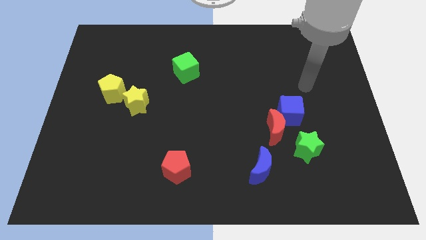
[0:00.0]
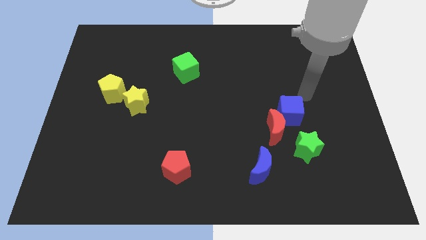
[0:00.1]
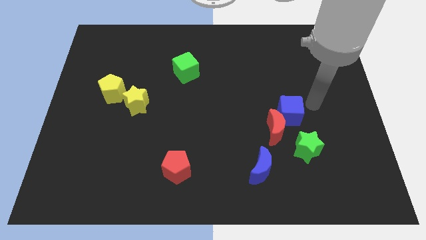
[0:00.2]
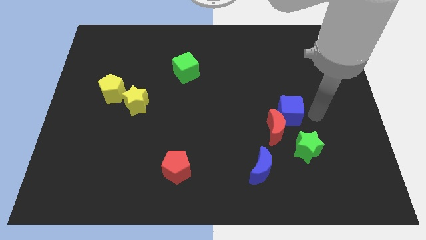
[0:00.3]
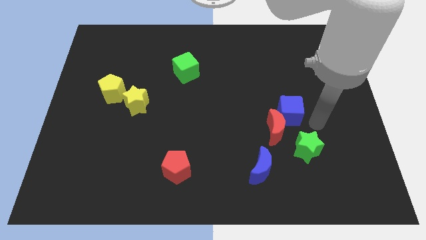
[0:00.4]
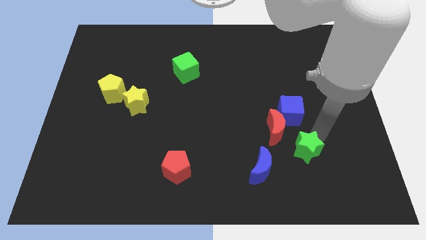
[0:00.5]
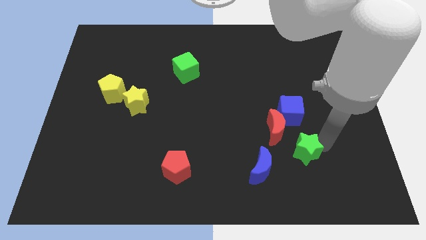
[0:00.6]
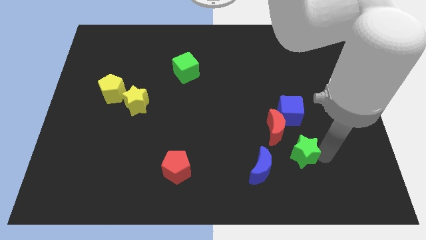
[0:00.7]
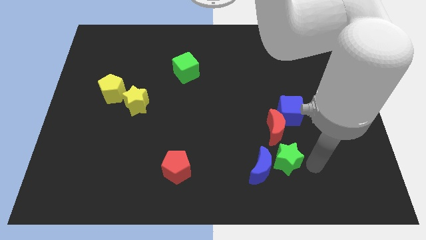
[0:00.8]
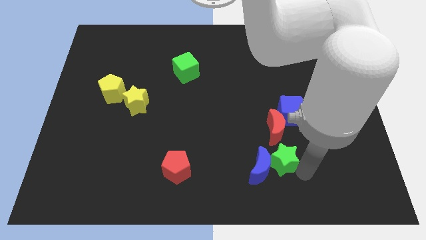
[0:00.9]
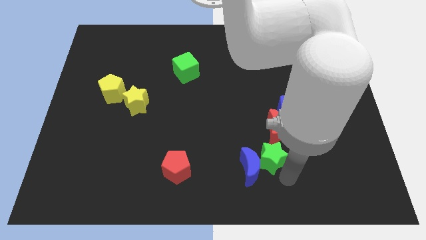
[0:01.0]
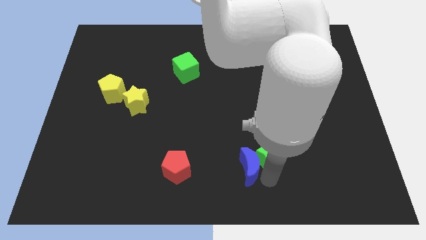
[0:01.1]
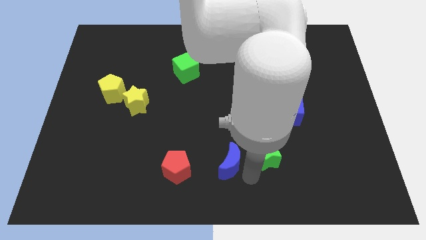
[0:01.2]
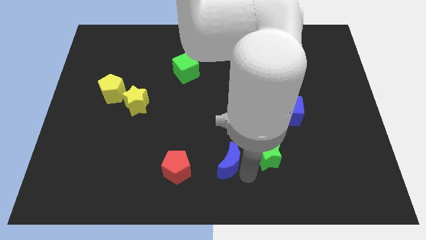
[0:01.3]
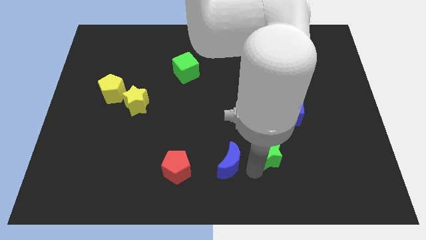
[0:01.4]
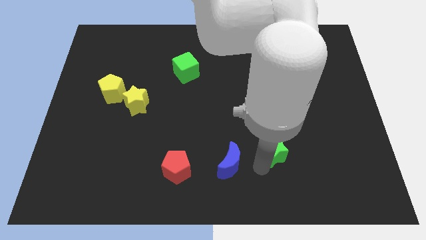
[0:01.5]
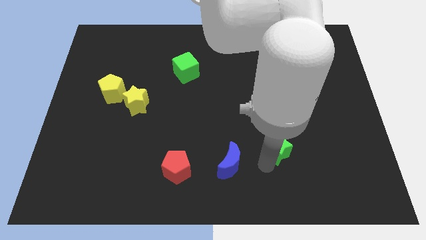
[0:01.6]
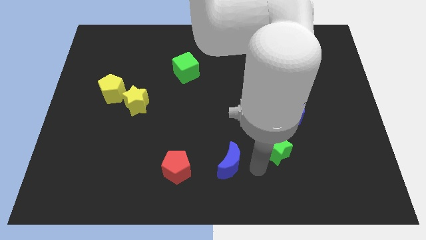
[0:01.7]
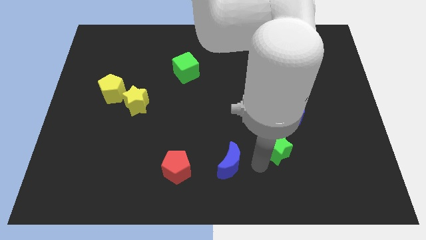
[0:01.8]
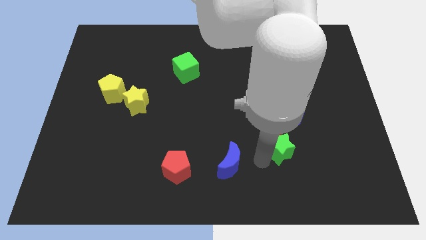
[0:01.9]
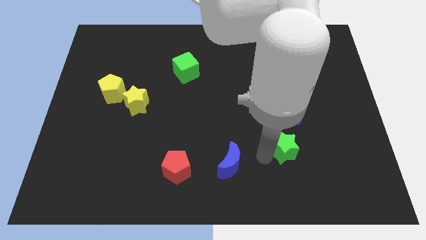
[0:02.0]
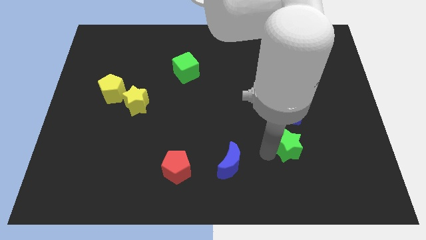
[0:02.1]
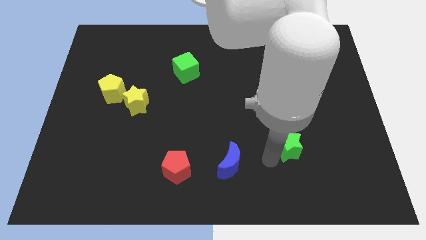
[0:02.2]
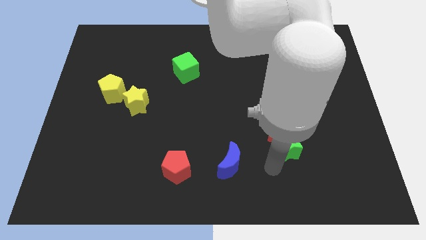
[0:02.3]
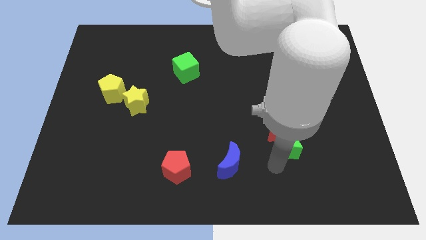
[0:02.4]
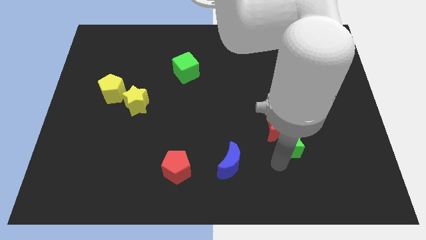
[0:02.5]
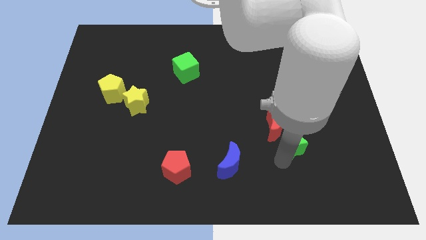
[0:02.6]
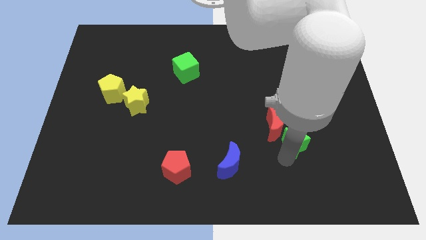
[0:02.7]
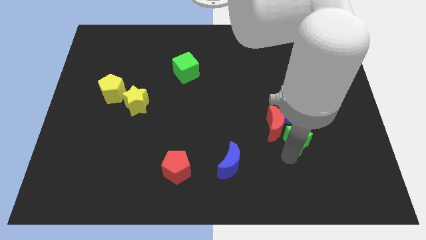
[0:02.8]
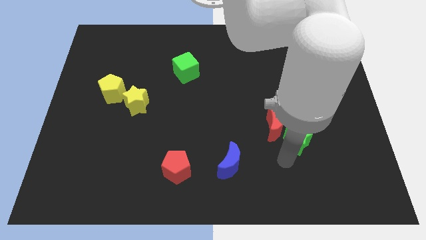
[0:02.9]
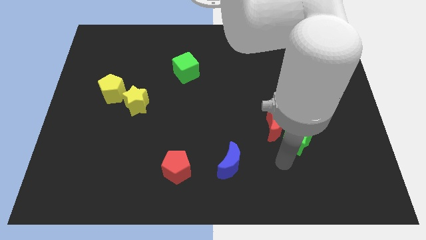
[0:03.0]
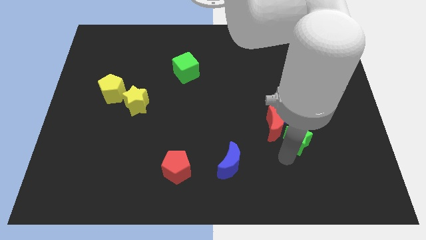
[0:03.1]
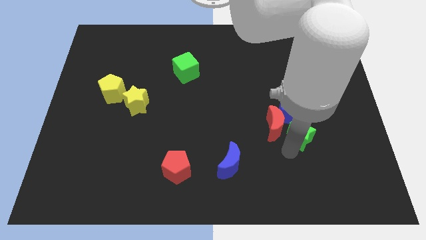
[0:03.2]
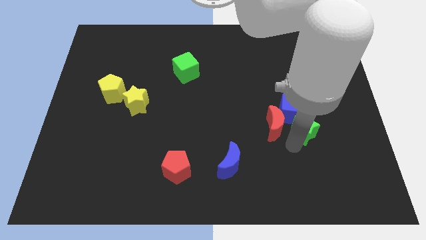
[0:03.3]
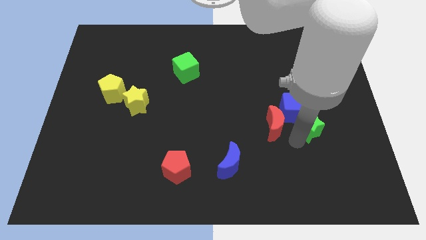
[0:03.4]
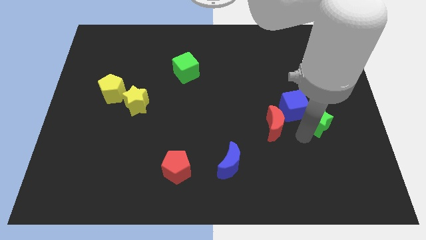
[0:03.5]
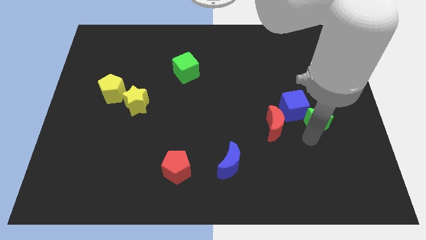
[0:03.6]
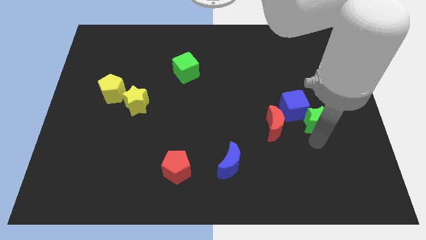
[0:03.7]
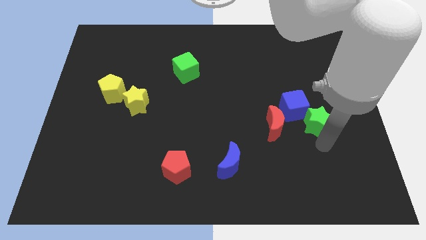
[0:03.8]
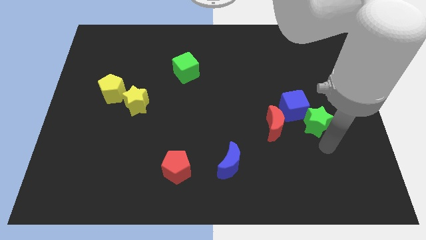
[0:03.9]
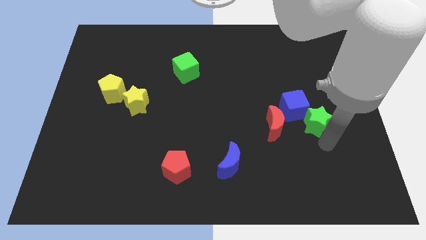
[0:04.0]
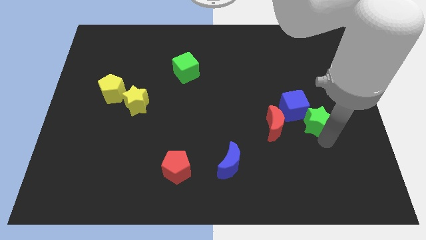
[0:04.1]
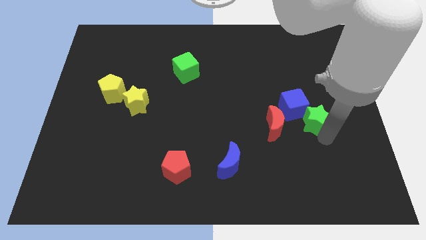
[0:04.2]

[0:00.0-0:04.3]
slightly push the green star up

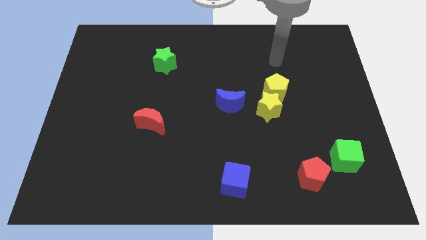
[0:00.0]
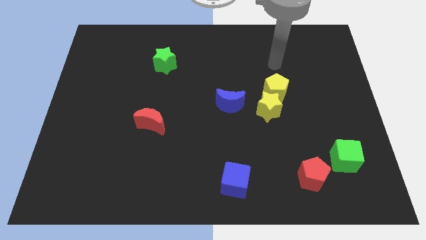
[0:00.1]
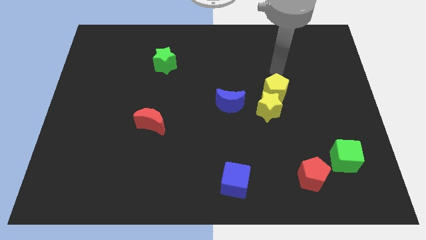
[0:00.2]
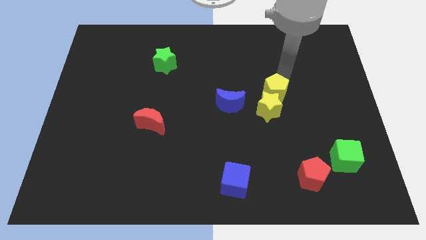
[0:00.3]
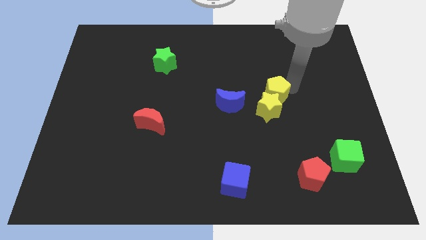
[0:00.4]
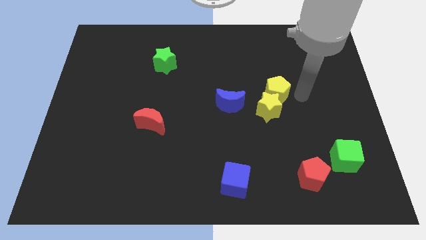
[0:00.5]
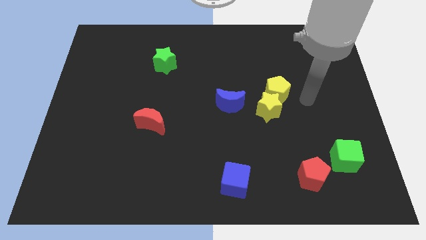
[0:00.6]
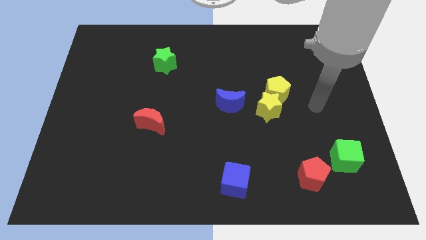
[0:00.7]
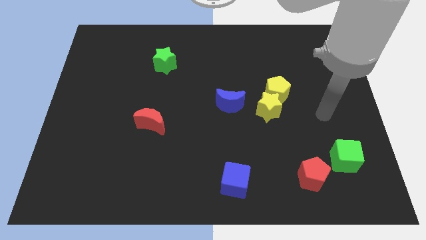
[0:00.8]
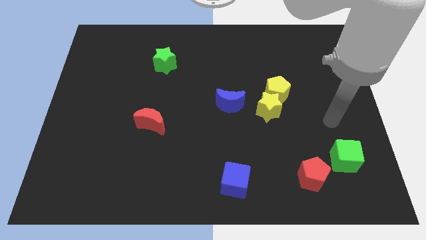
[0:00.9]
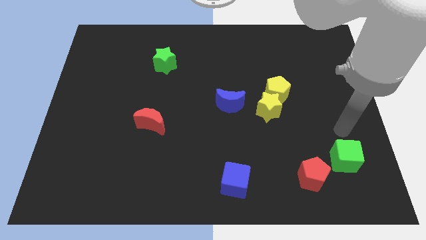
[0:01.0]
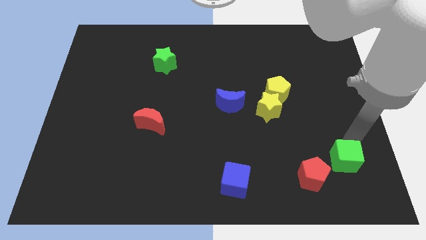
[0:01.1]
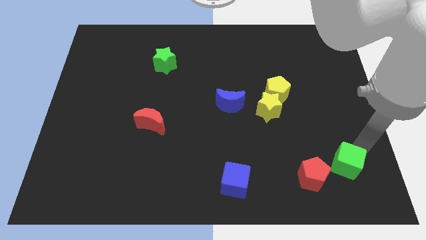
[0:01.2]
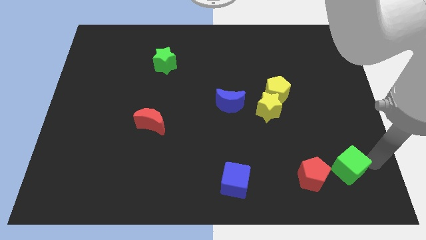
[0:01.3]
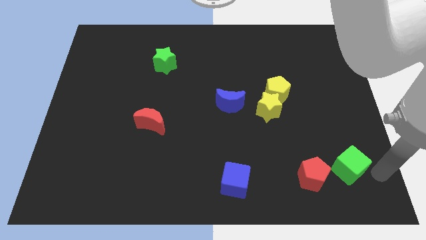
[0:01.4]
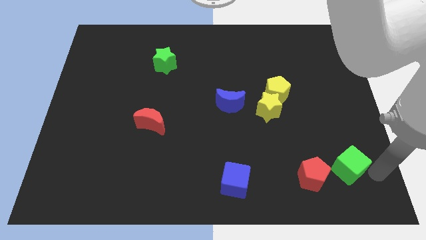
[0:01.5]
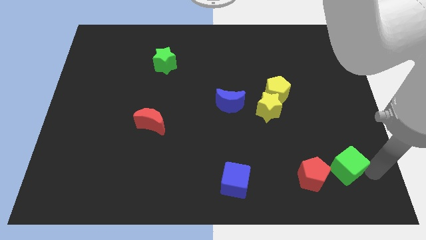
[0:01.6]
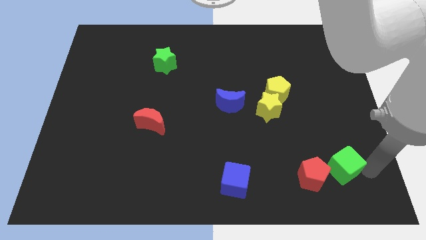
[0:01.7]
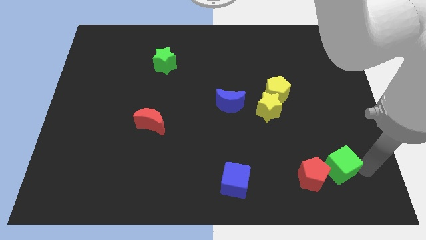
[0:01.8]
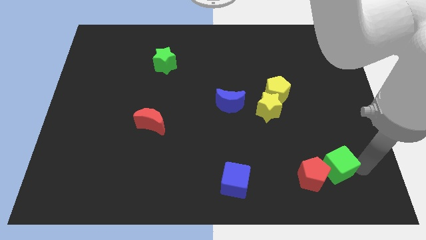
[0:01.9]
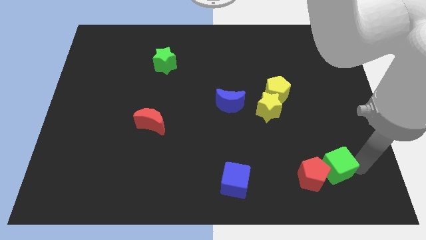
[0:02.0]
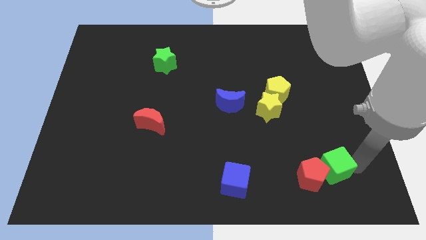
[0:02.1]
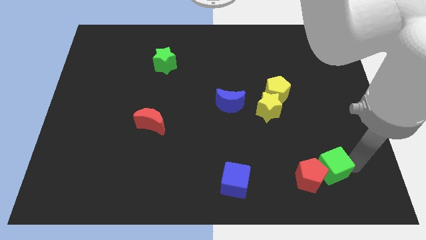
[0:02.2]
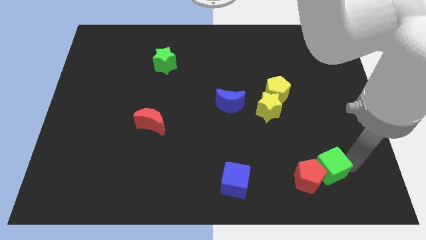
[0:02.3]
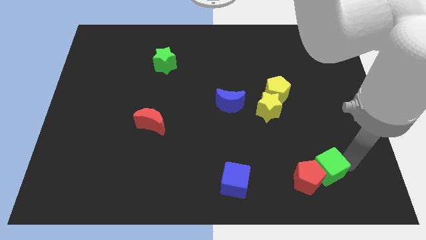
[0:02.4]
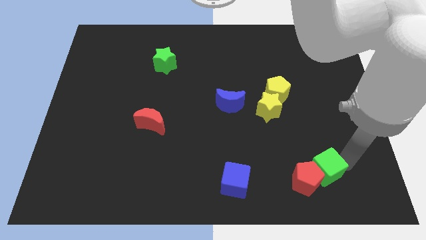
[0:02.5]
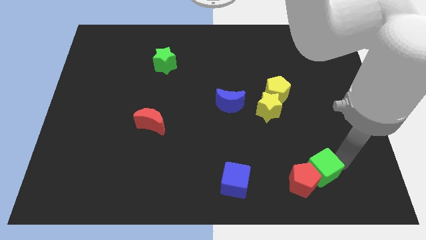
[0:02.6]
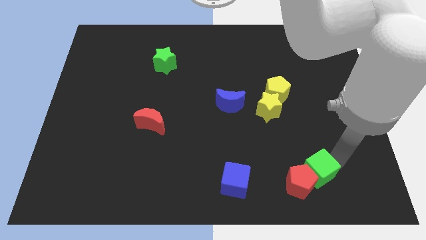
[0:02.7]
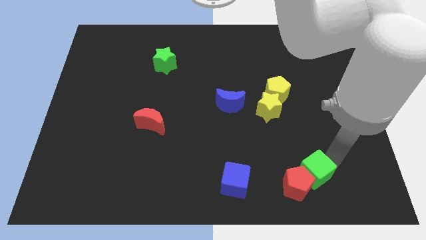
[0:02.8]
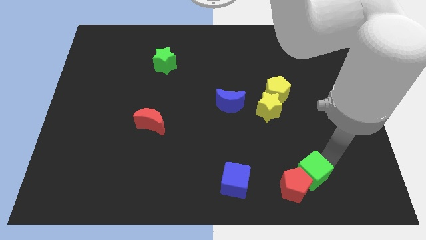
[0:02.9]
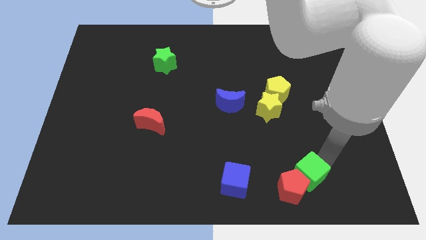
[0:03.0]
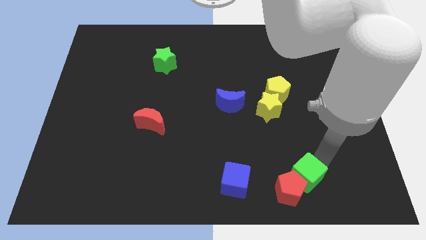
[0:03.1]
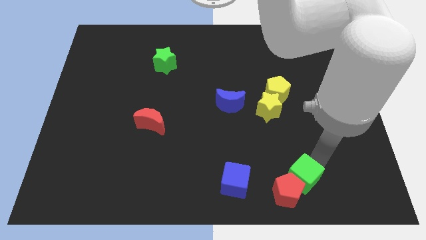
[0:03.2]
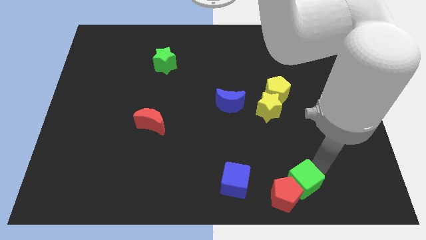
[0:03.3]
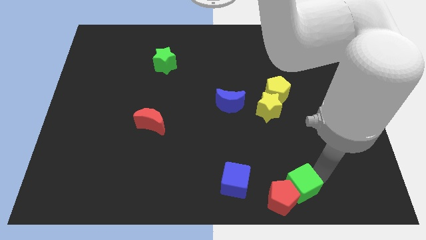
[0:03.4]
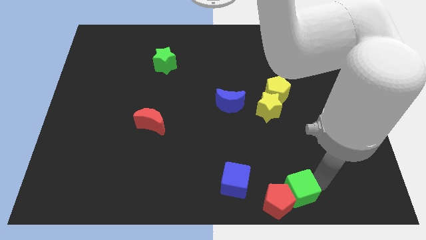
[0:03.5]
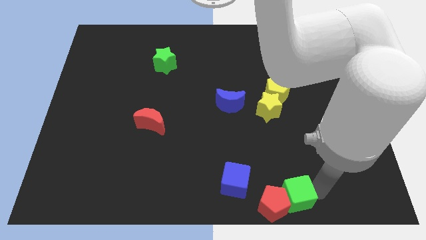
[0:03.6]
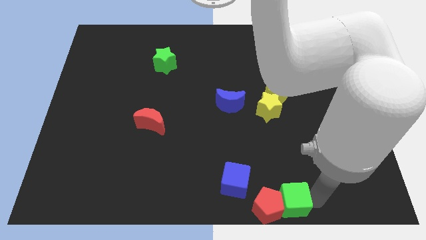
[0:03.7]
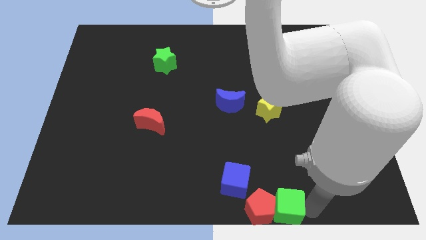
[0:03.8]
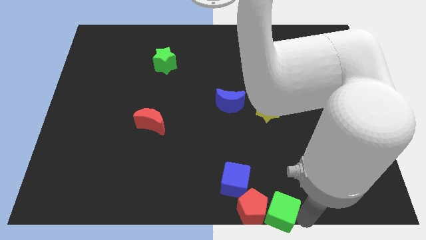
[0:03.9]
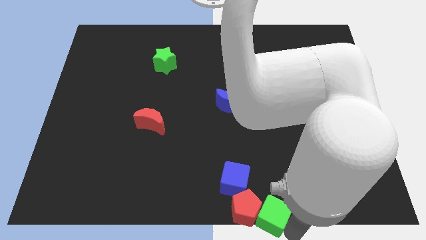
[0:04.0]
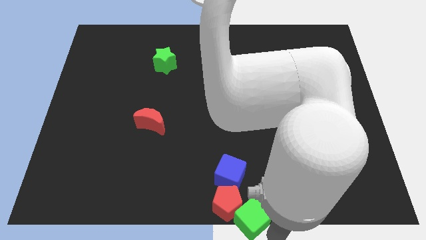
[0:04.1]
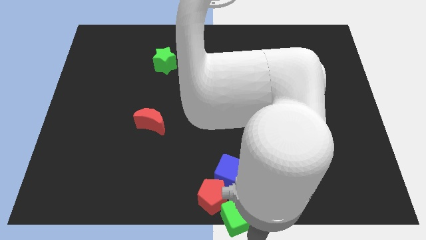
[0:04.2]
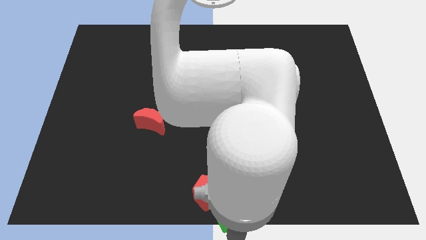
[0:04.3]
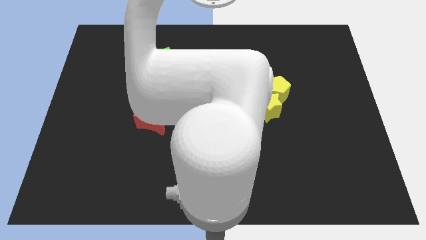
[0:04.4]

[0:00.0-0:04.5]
move the green cube left
